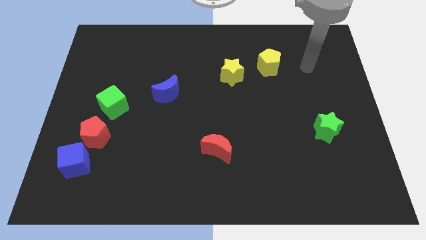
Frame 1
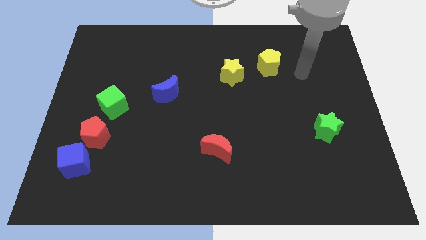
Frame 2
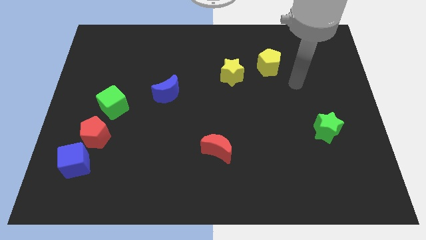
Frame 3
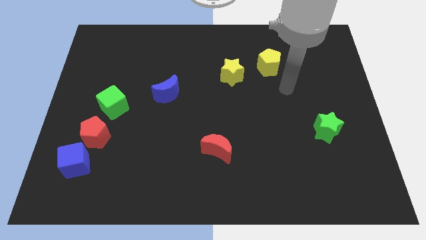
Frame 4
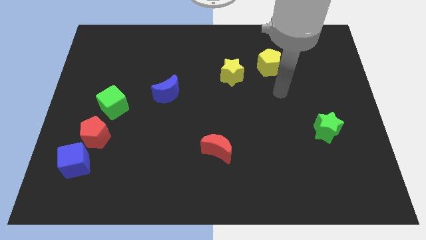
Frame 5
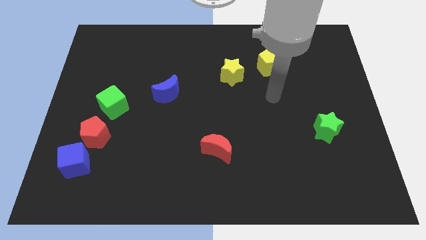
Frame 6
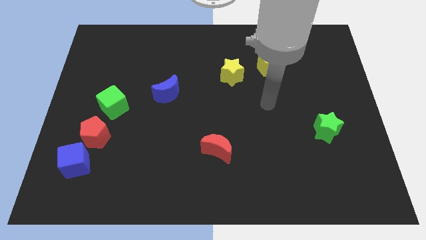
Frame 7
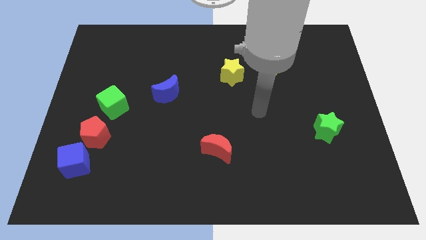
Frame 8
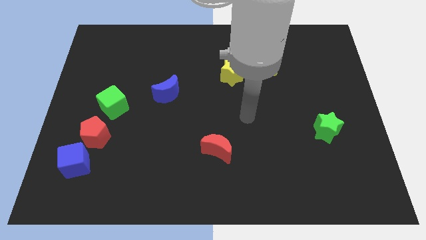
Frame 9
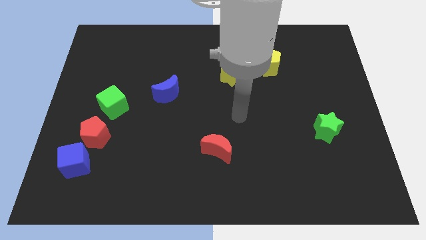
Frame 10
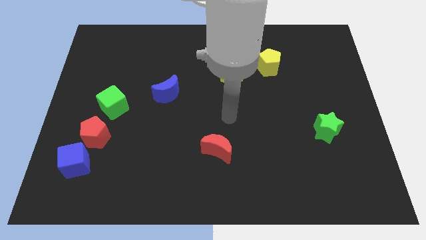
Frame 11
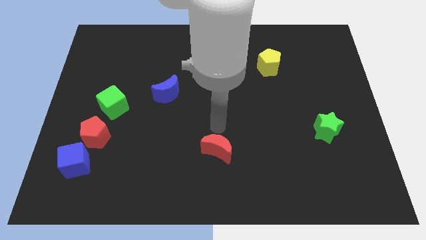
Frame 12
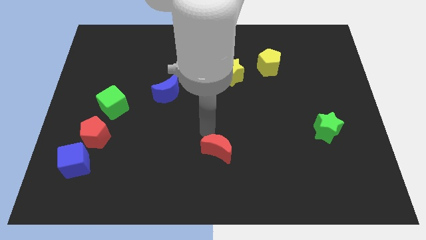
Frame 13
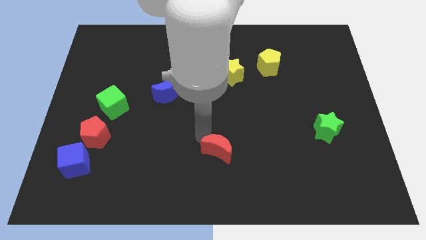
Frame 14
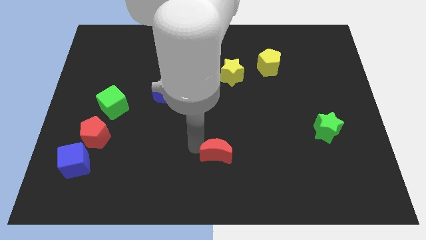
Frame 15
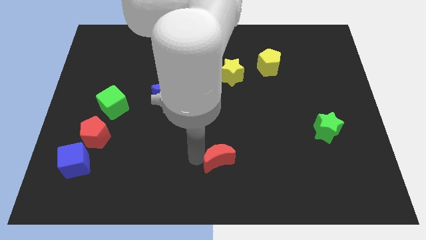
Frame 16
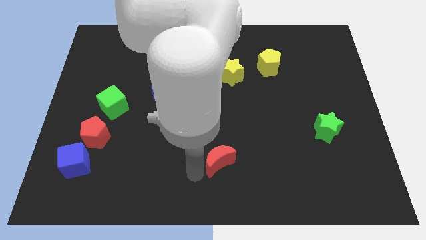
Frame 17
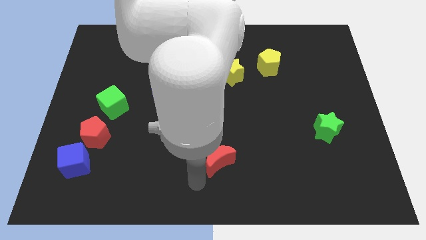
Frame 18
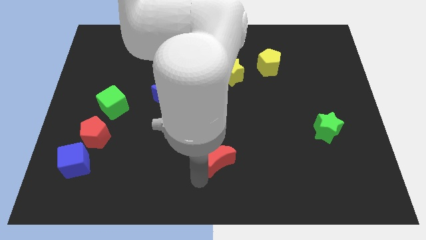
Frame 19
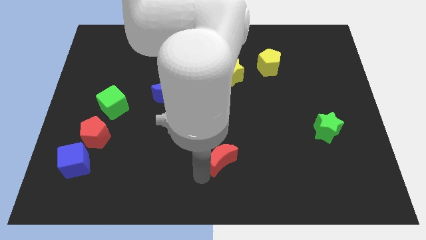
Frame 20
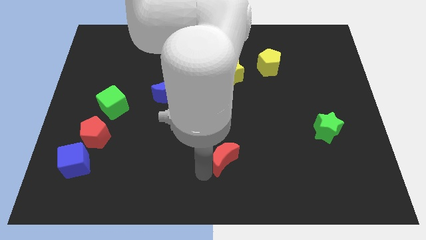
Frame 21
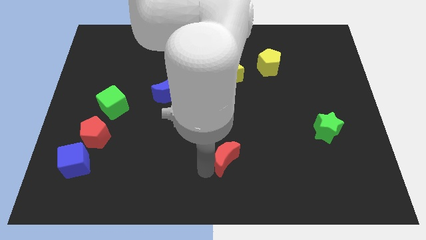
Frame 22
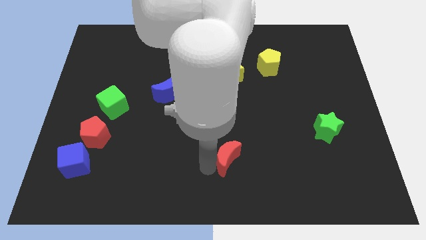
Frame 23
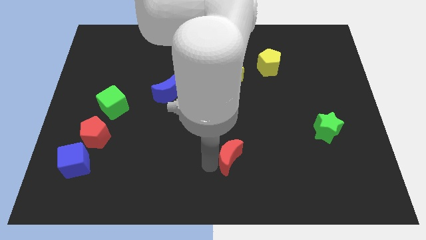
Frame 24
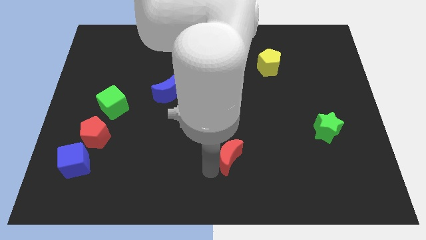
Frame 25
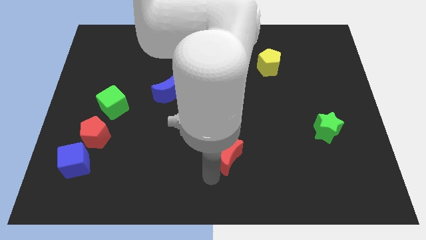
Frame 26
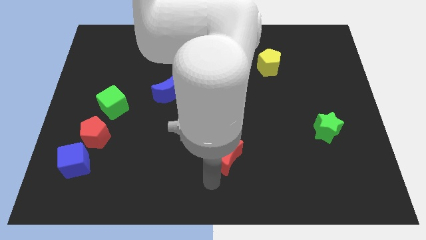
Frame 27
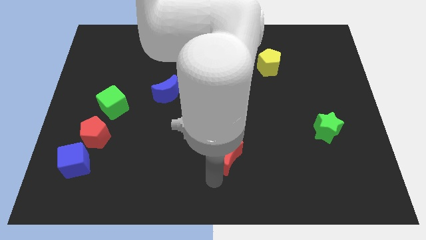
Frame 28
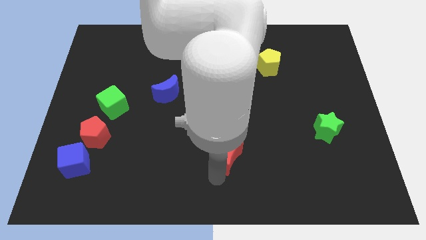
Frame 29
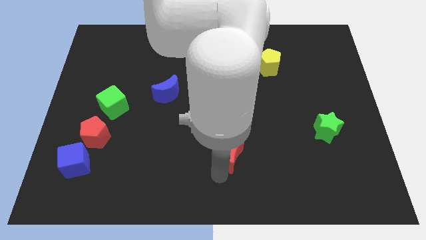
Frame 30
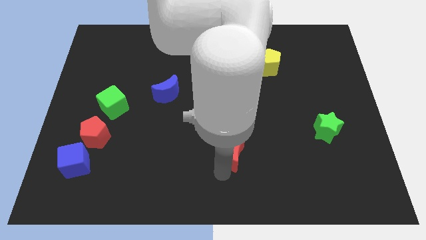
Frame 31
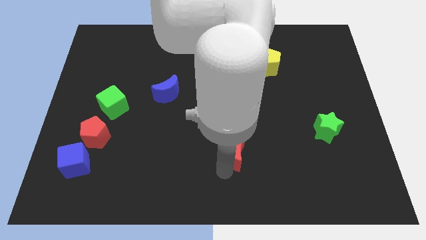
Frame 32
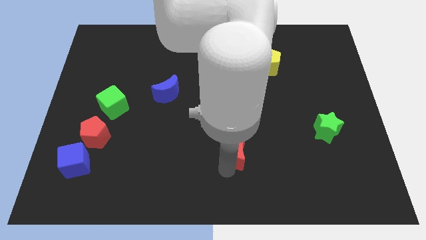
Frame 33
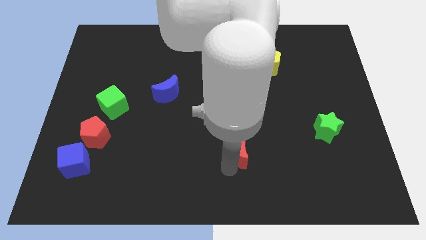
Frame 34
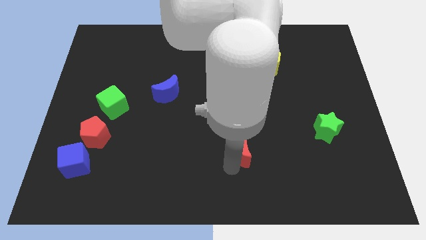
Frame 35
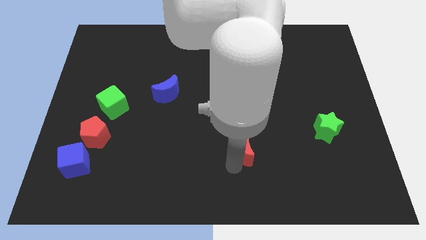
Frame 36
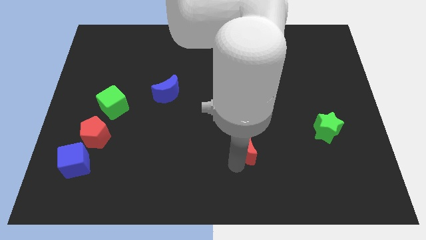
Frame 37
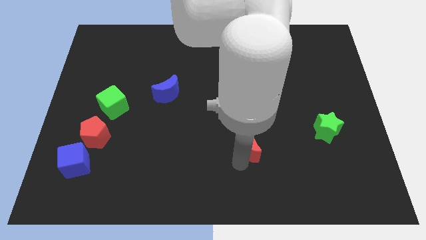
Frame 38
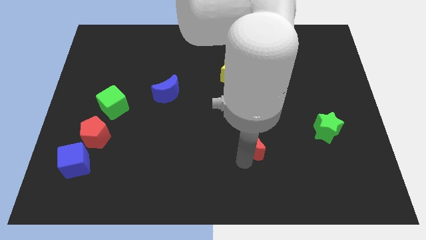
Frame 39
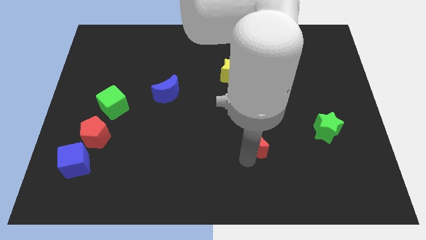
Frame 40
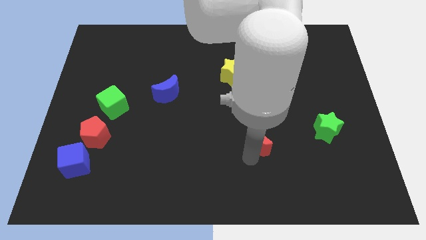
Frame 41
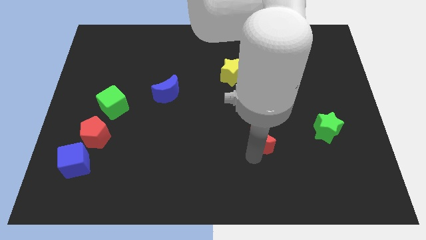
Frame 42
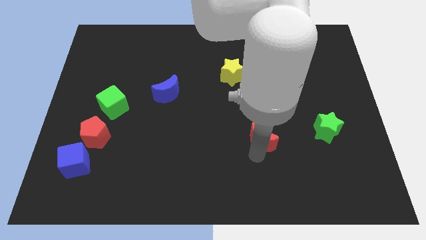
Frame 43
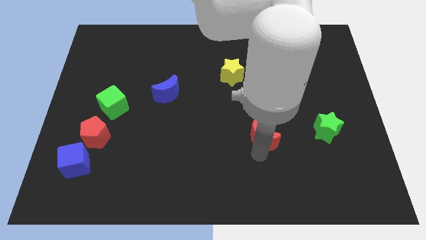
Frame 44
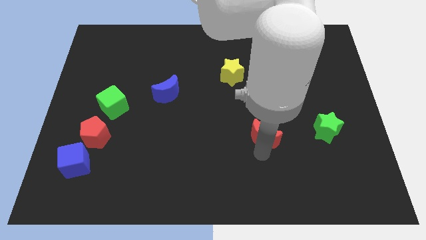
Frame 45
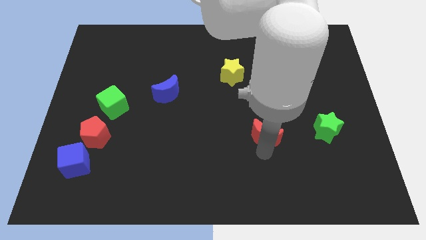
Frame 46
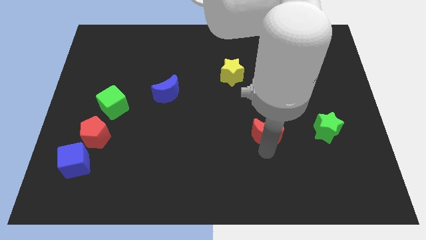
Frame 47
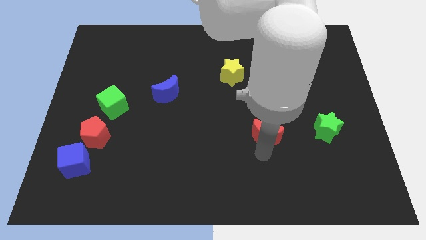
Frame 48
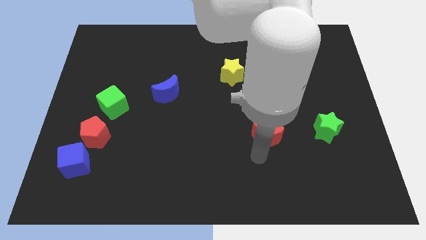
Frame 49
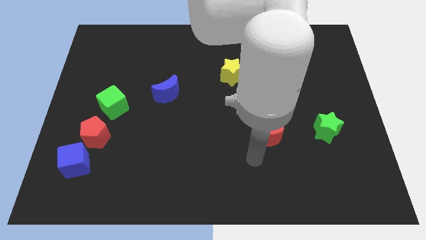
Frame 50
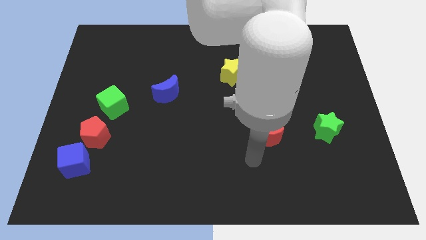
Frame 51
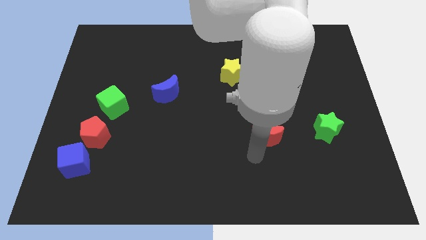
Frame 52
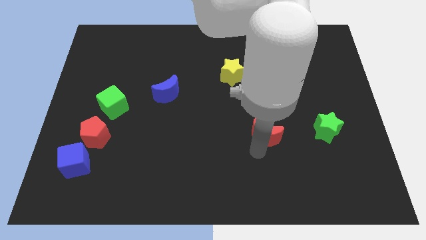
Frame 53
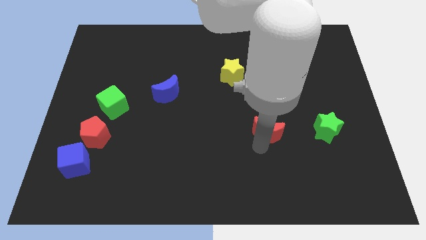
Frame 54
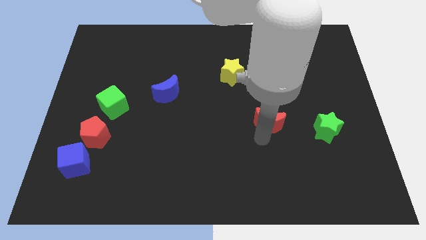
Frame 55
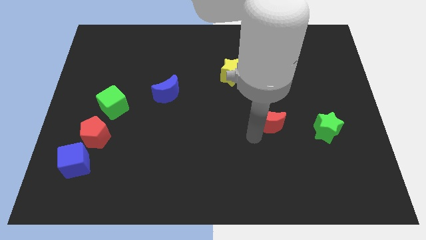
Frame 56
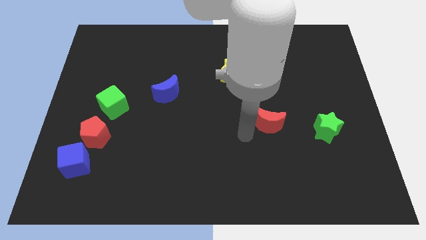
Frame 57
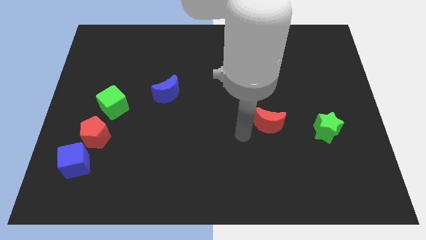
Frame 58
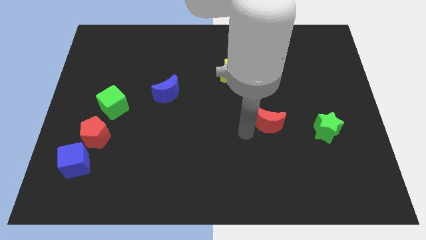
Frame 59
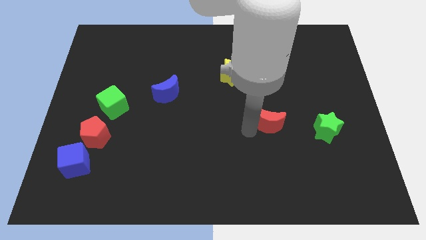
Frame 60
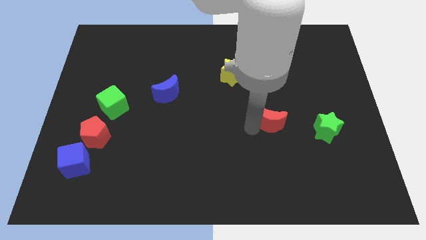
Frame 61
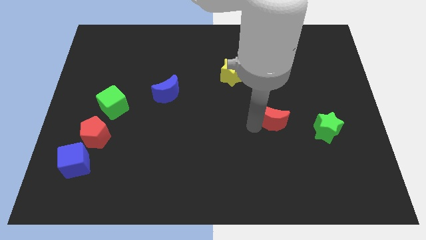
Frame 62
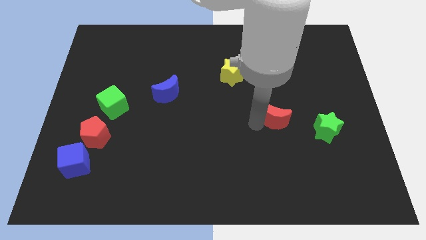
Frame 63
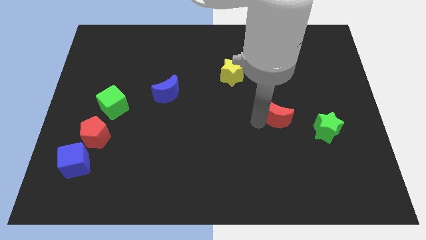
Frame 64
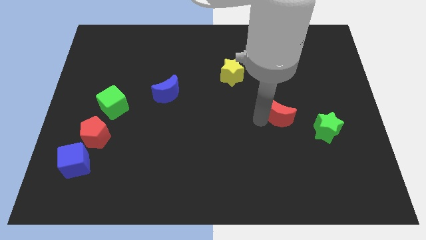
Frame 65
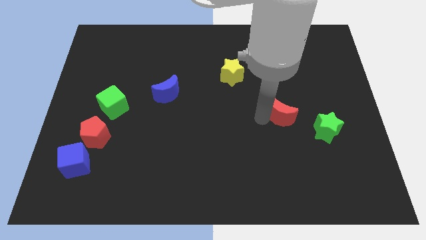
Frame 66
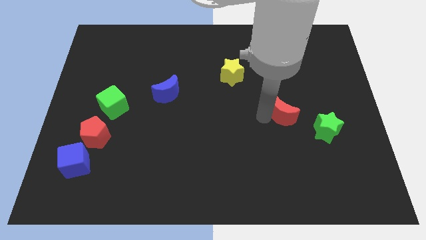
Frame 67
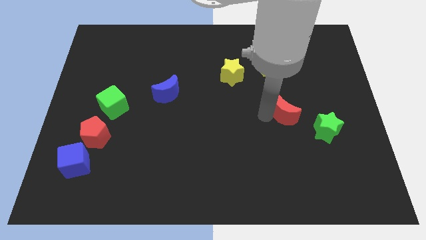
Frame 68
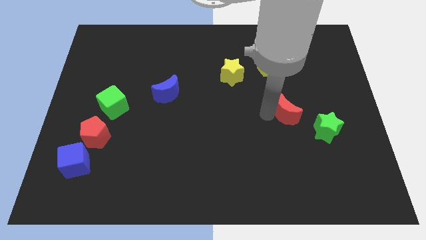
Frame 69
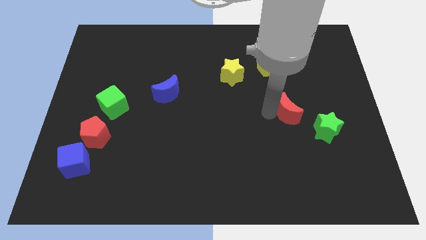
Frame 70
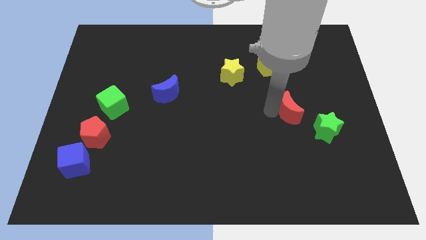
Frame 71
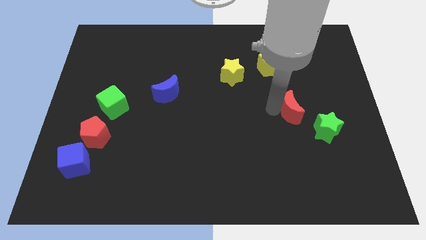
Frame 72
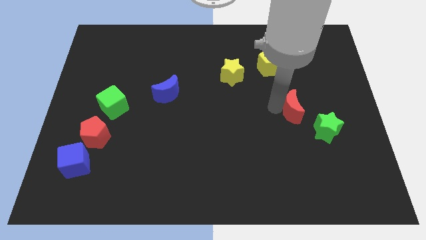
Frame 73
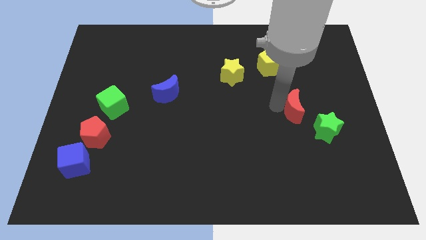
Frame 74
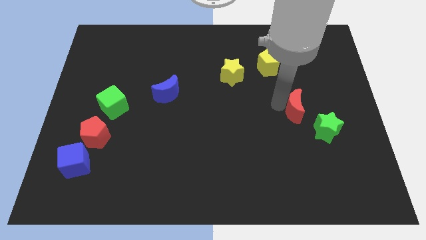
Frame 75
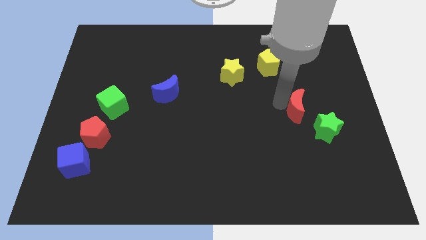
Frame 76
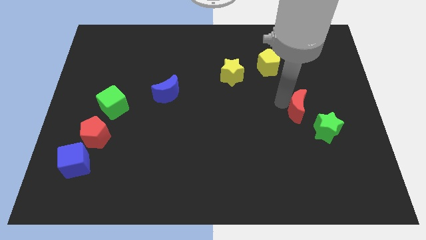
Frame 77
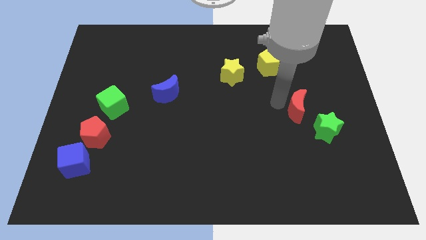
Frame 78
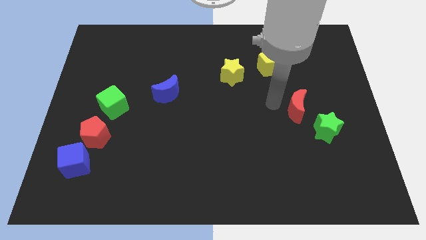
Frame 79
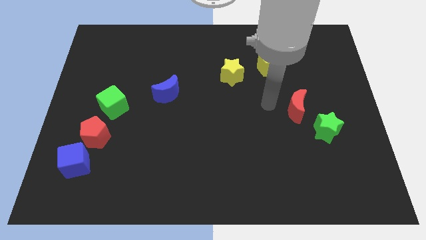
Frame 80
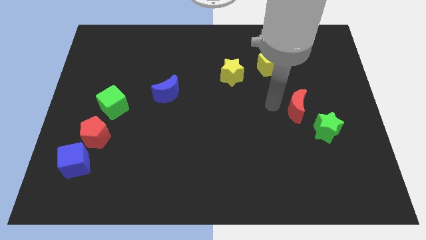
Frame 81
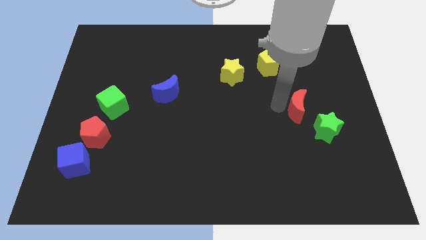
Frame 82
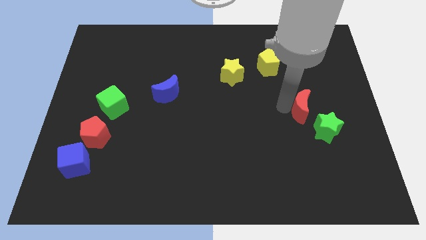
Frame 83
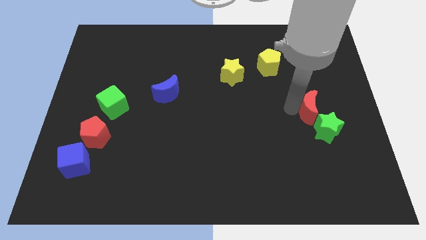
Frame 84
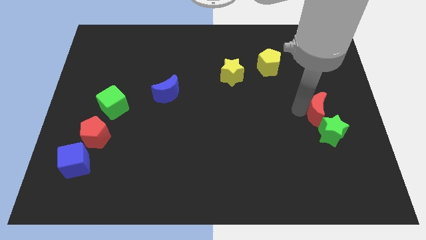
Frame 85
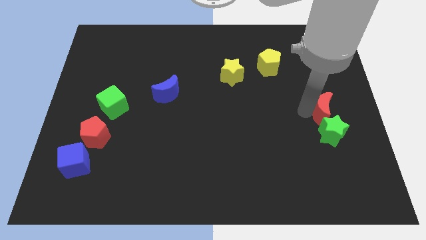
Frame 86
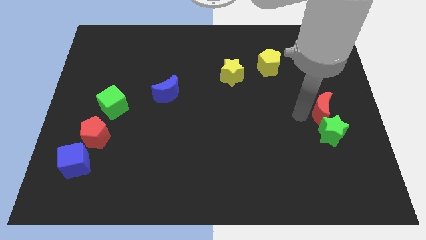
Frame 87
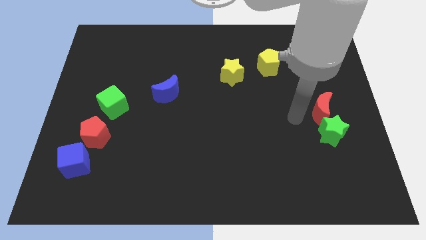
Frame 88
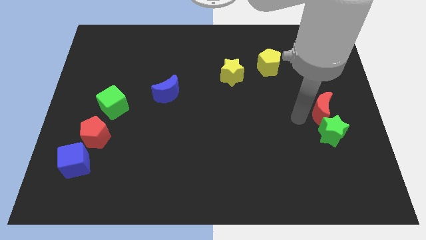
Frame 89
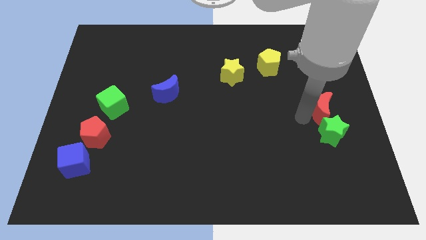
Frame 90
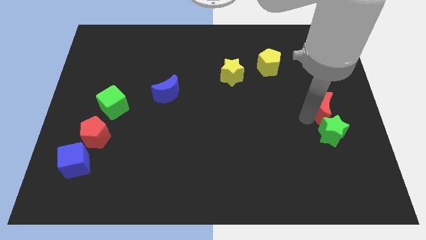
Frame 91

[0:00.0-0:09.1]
push the red moon to the right side of the board
